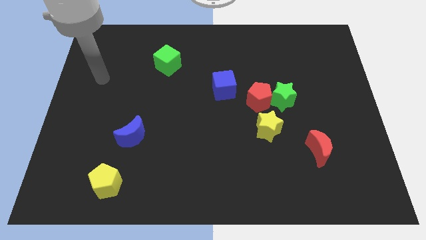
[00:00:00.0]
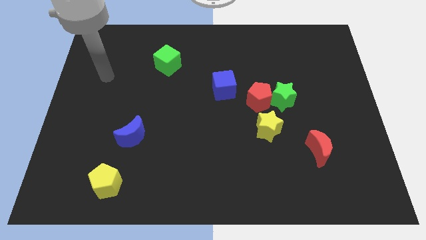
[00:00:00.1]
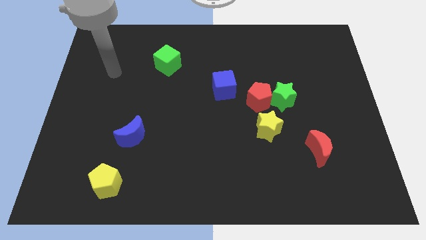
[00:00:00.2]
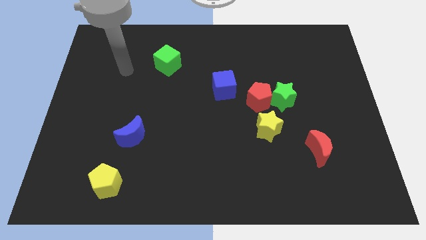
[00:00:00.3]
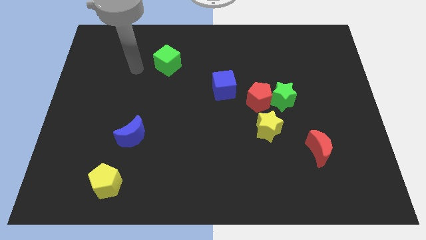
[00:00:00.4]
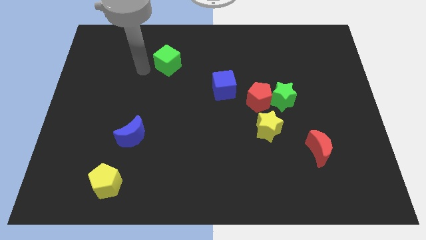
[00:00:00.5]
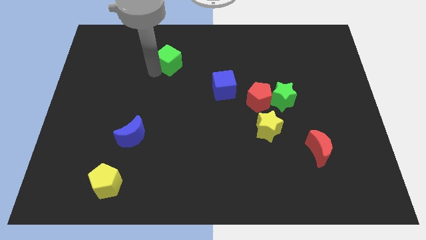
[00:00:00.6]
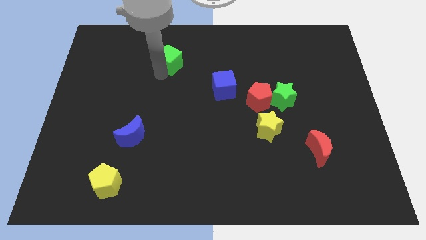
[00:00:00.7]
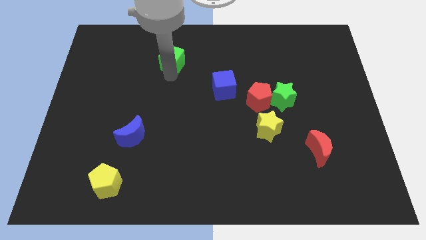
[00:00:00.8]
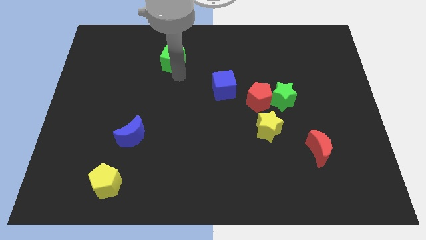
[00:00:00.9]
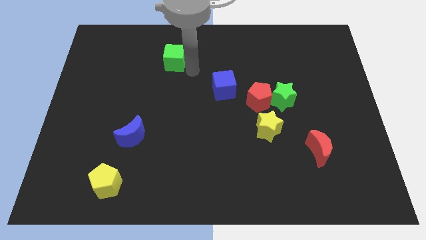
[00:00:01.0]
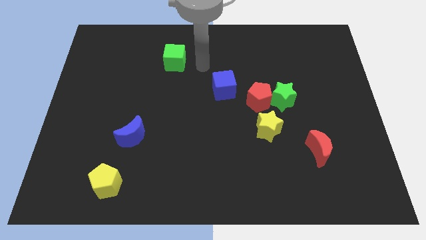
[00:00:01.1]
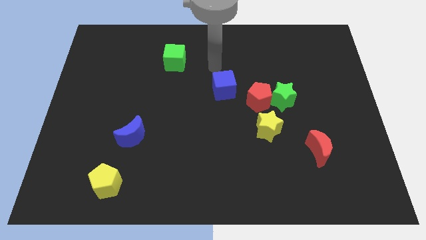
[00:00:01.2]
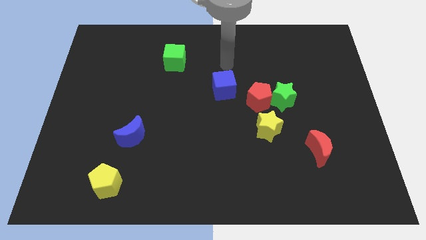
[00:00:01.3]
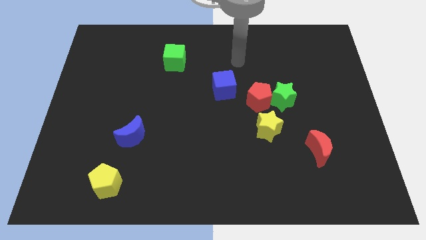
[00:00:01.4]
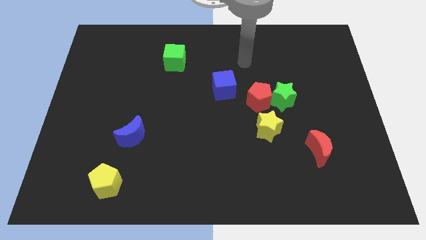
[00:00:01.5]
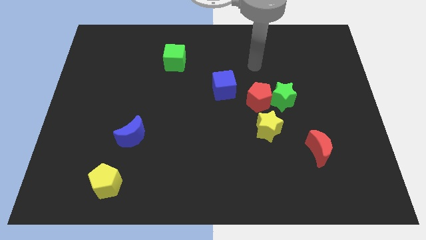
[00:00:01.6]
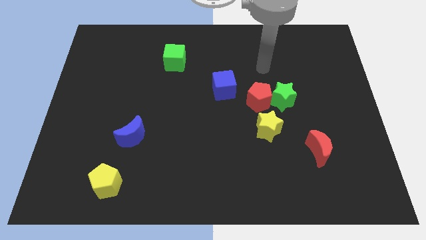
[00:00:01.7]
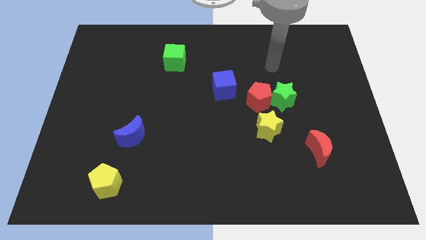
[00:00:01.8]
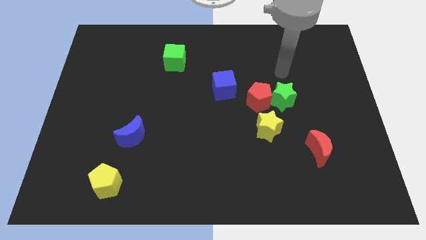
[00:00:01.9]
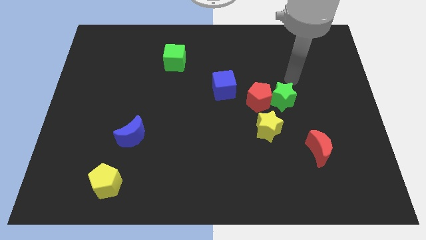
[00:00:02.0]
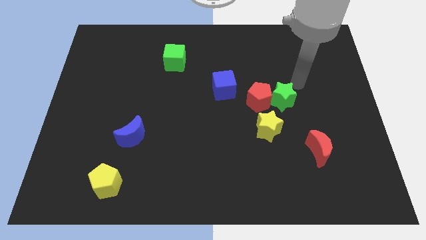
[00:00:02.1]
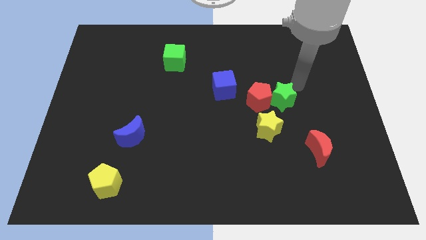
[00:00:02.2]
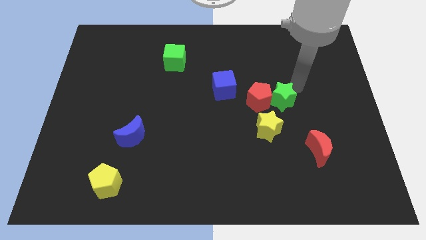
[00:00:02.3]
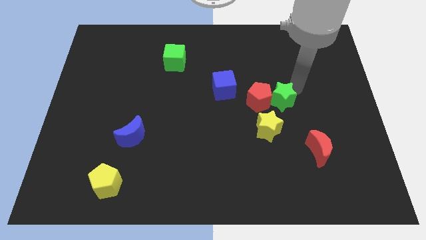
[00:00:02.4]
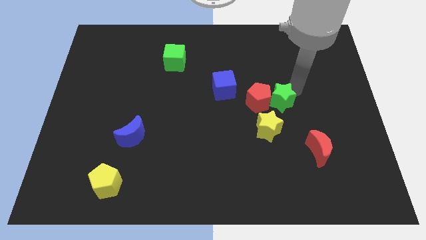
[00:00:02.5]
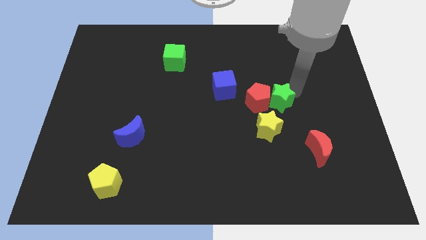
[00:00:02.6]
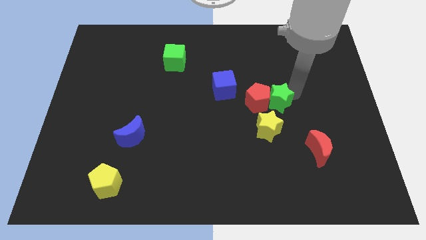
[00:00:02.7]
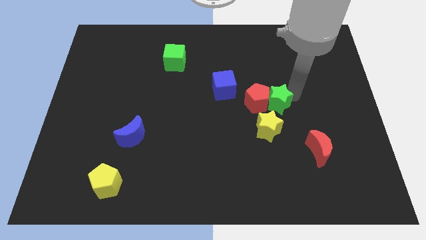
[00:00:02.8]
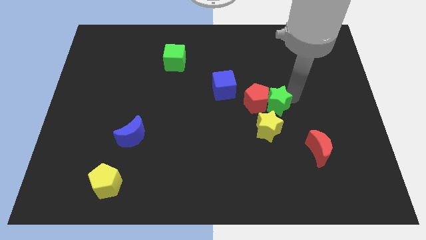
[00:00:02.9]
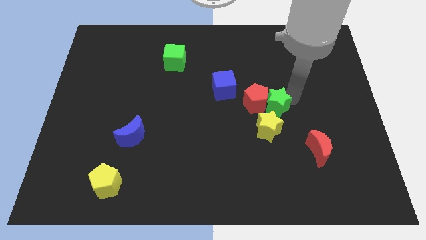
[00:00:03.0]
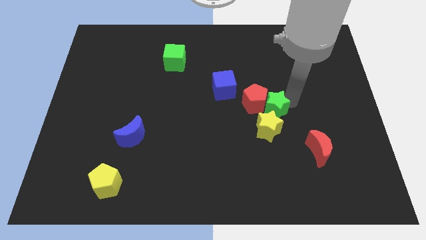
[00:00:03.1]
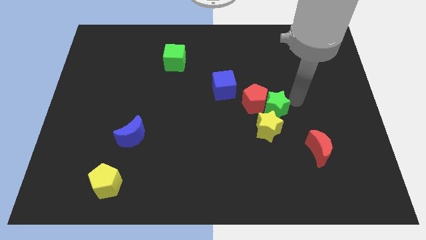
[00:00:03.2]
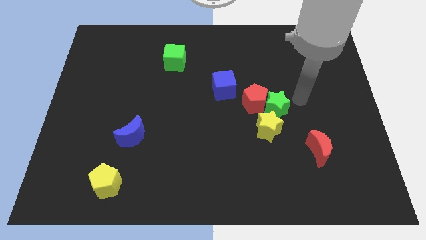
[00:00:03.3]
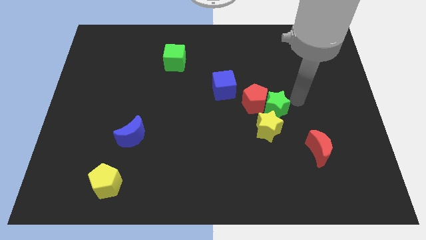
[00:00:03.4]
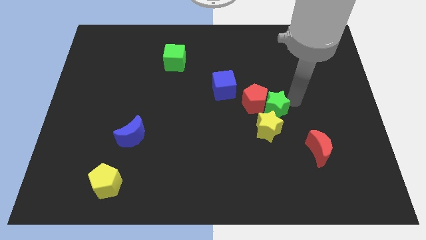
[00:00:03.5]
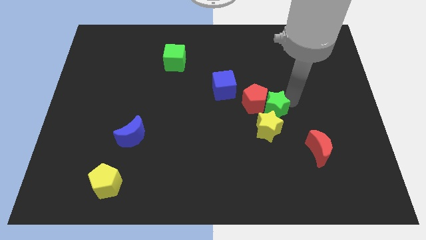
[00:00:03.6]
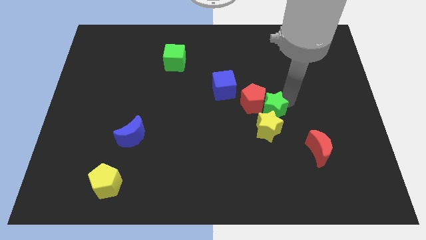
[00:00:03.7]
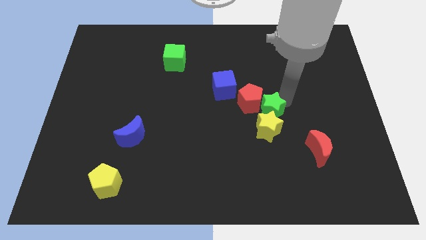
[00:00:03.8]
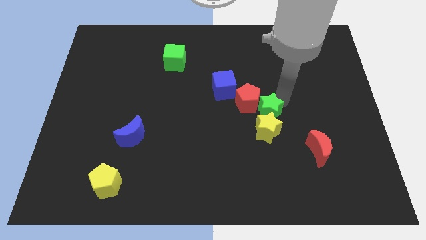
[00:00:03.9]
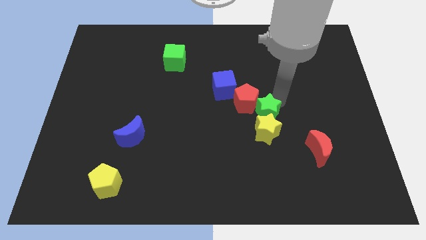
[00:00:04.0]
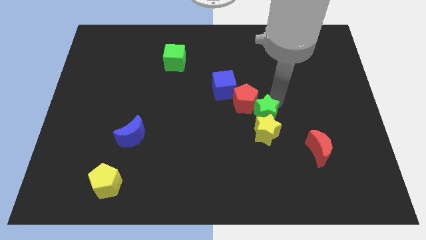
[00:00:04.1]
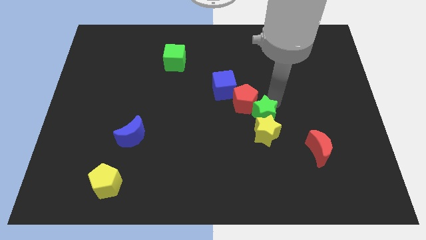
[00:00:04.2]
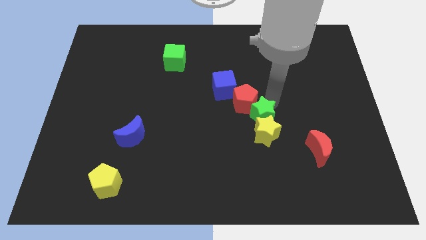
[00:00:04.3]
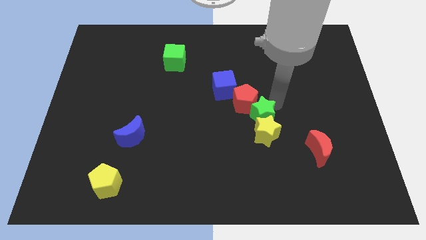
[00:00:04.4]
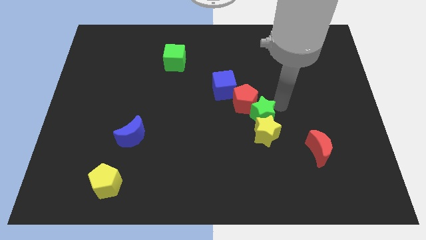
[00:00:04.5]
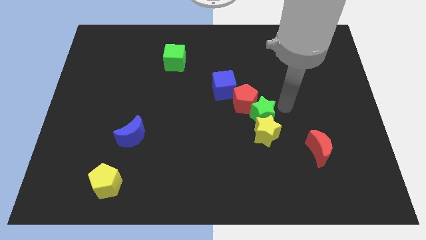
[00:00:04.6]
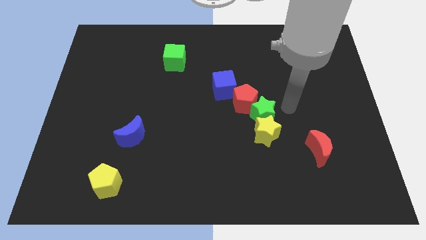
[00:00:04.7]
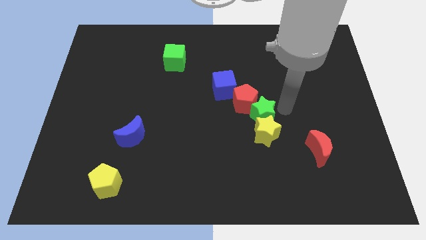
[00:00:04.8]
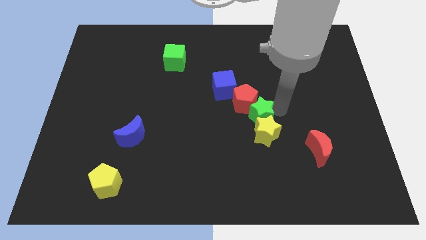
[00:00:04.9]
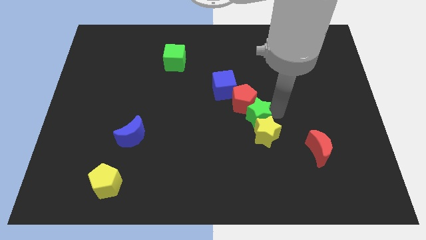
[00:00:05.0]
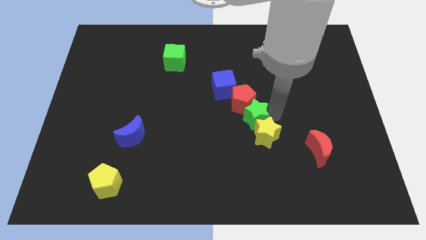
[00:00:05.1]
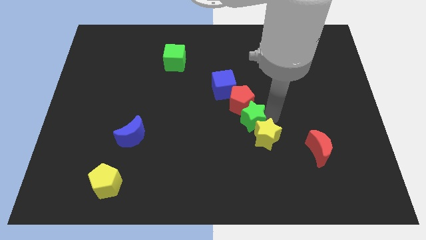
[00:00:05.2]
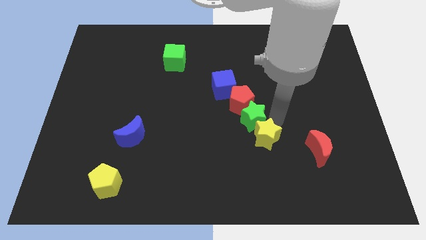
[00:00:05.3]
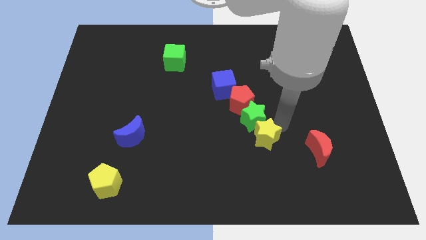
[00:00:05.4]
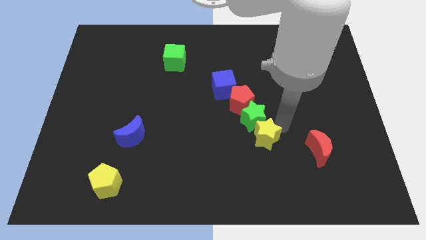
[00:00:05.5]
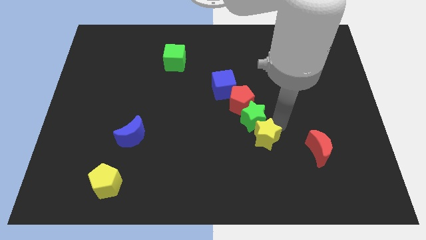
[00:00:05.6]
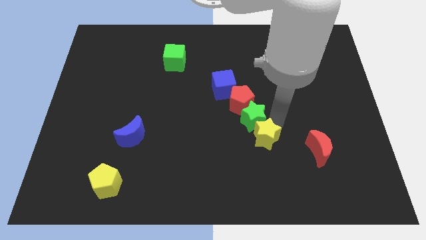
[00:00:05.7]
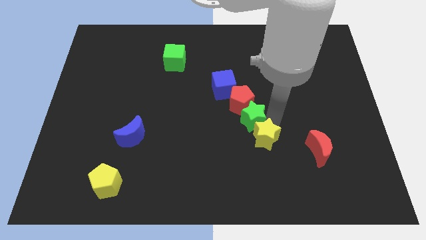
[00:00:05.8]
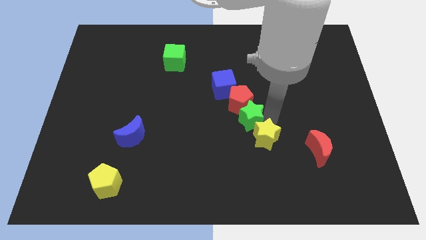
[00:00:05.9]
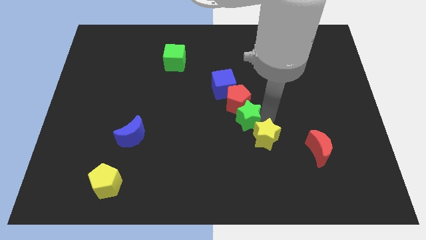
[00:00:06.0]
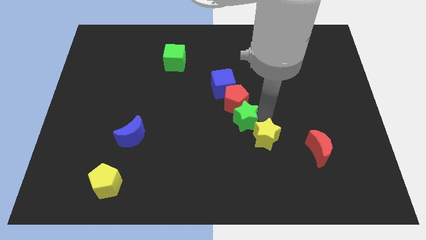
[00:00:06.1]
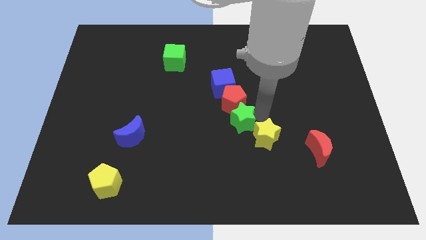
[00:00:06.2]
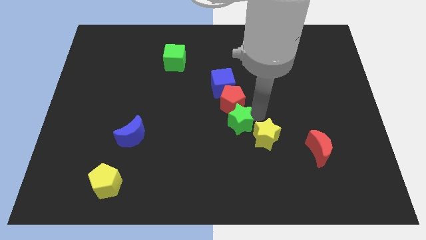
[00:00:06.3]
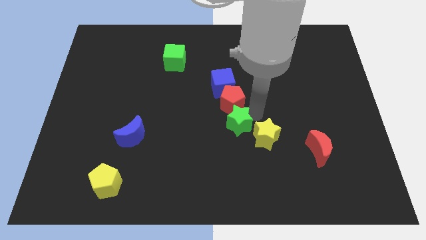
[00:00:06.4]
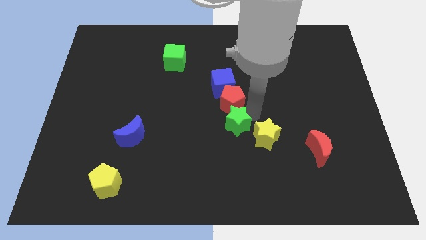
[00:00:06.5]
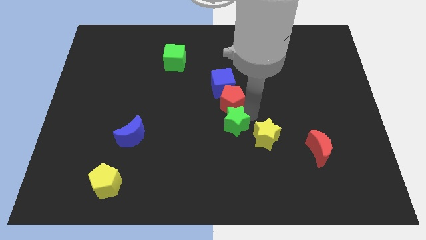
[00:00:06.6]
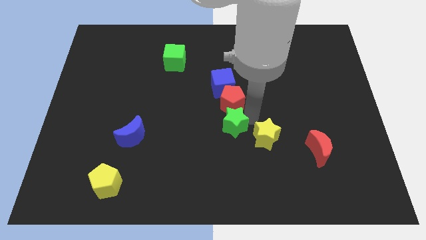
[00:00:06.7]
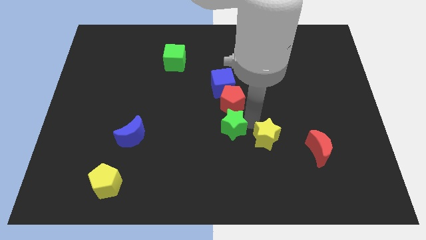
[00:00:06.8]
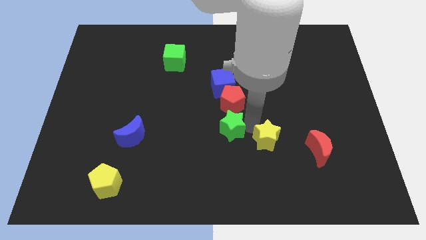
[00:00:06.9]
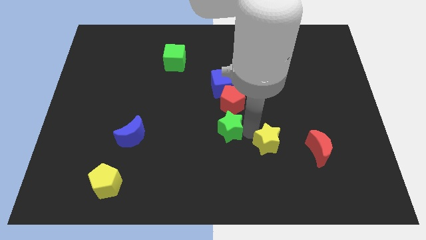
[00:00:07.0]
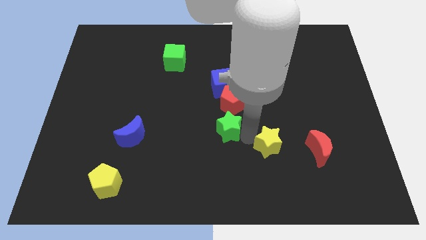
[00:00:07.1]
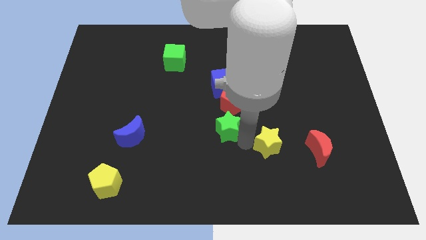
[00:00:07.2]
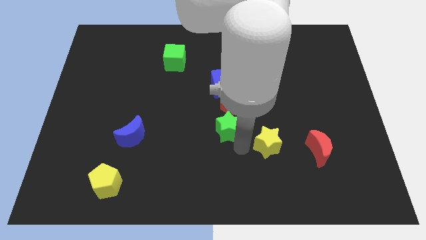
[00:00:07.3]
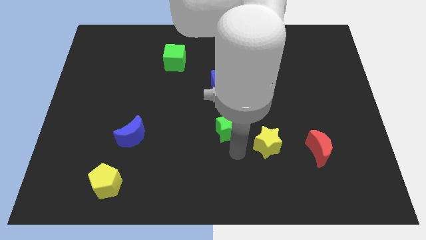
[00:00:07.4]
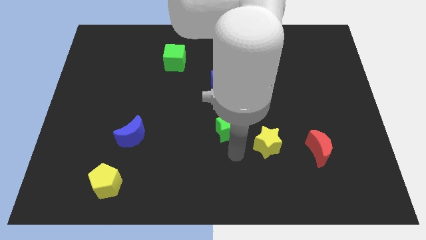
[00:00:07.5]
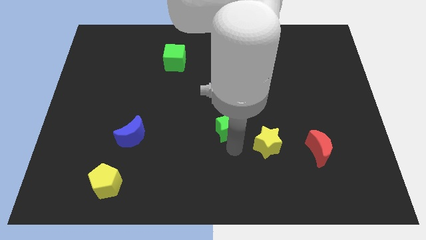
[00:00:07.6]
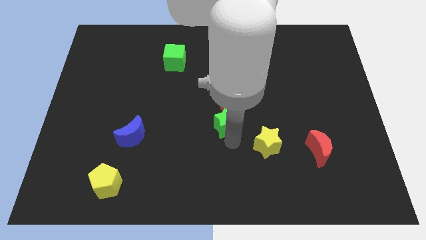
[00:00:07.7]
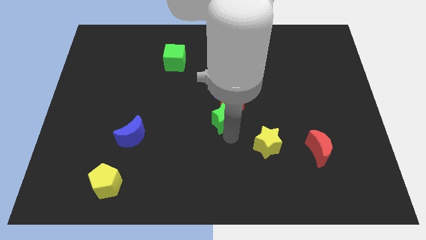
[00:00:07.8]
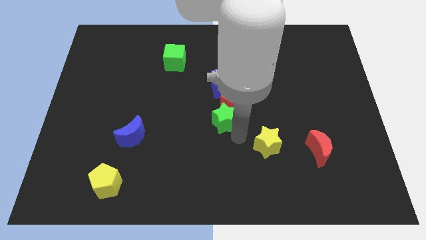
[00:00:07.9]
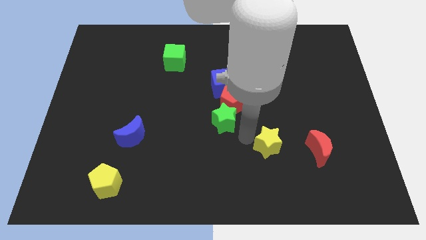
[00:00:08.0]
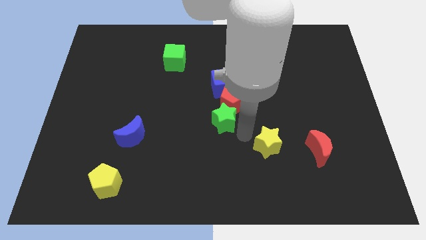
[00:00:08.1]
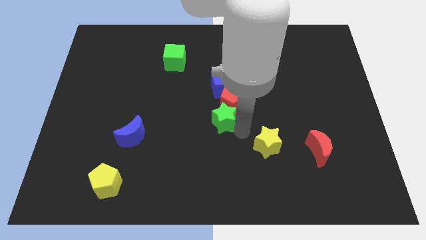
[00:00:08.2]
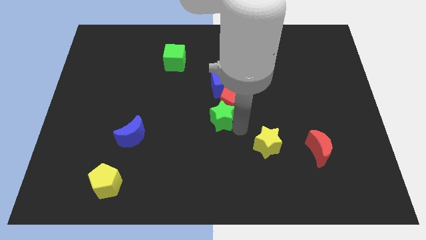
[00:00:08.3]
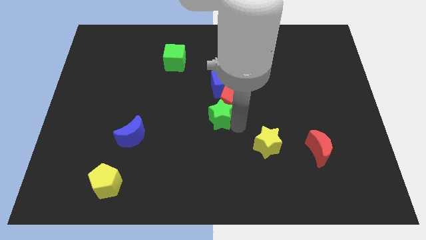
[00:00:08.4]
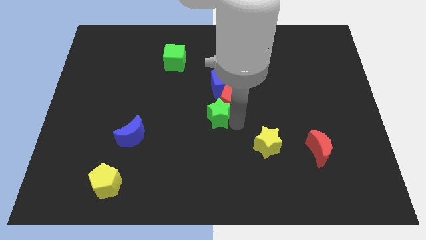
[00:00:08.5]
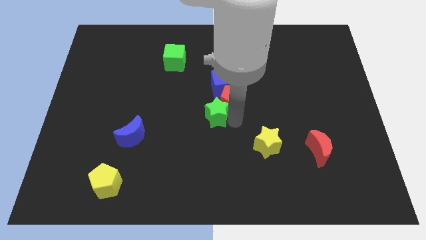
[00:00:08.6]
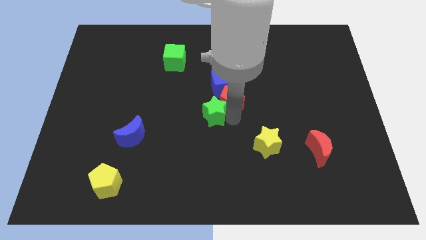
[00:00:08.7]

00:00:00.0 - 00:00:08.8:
slide the green star diagonally down and to the left of the blue cube
